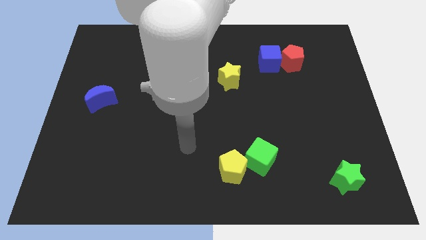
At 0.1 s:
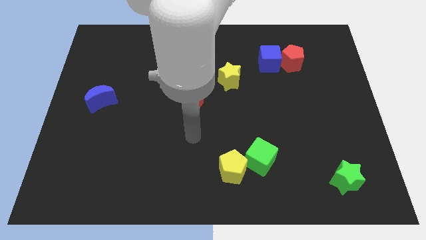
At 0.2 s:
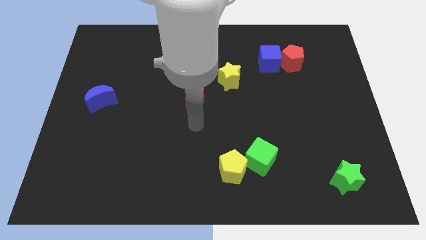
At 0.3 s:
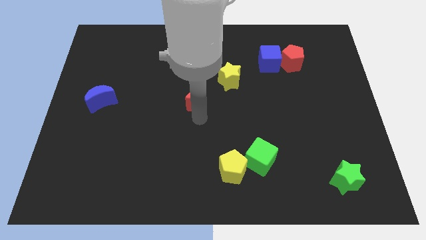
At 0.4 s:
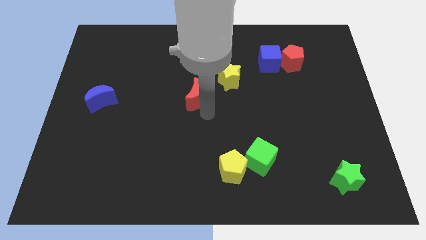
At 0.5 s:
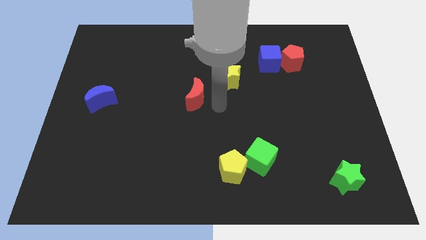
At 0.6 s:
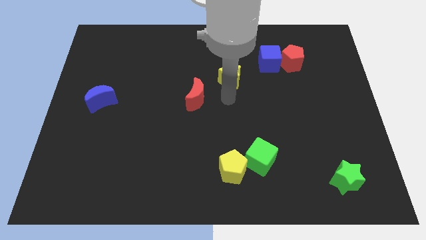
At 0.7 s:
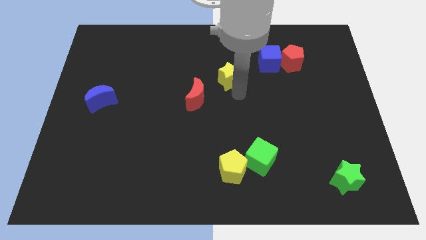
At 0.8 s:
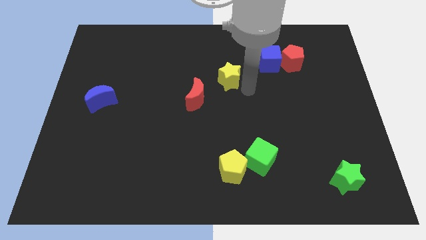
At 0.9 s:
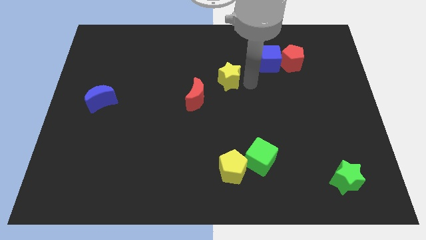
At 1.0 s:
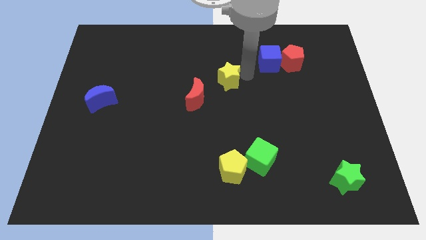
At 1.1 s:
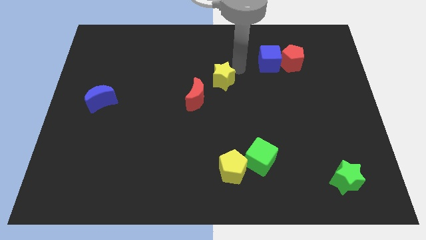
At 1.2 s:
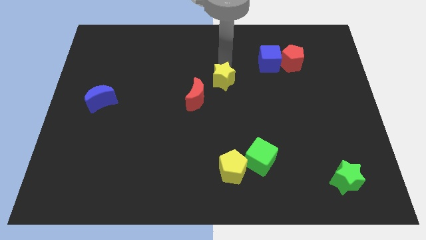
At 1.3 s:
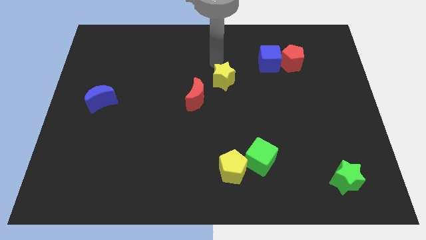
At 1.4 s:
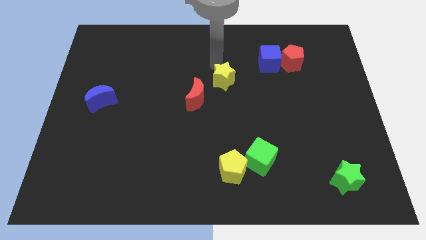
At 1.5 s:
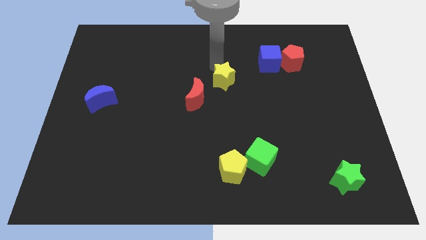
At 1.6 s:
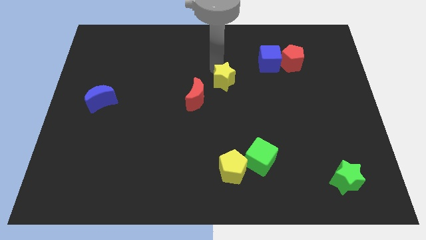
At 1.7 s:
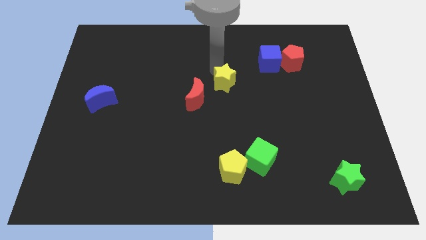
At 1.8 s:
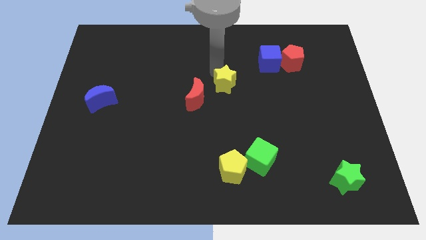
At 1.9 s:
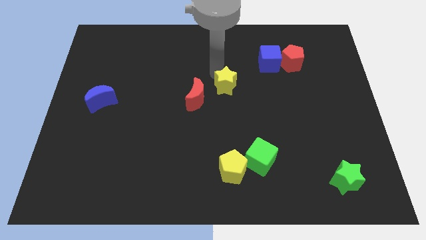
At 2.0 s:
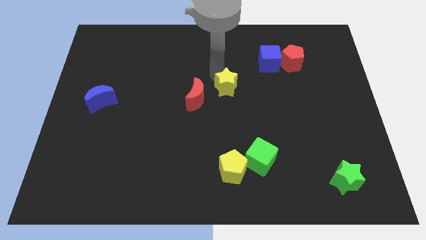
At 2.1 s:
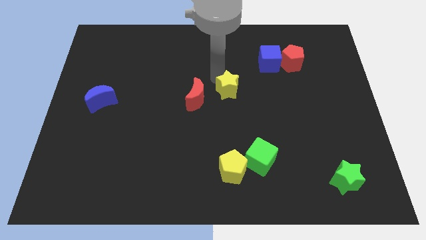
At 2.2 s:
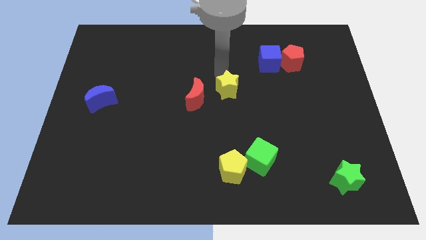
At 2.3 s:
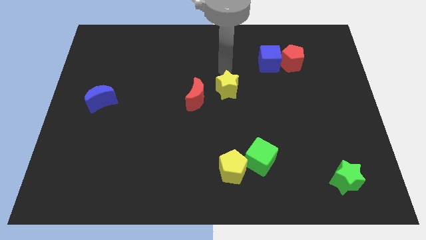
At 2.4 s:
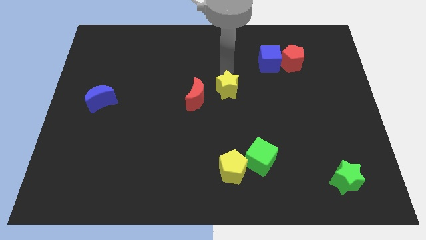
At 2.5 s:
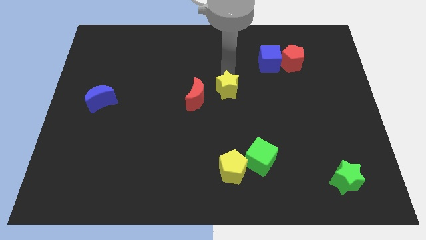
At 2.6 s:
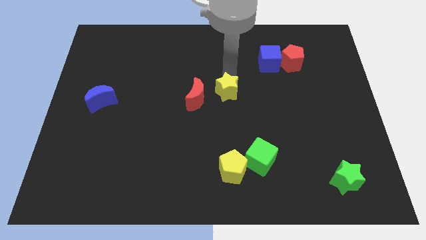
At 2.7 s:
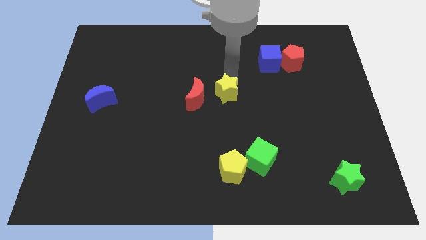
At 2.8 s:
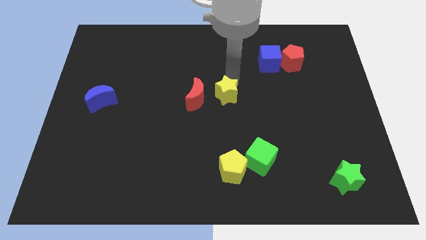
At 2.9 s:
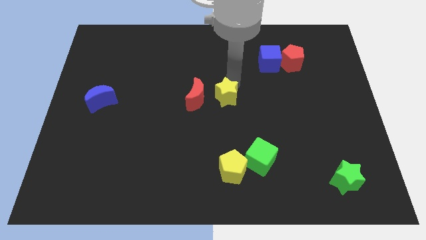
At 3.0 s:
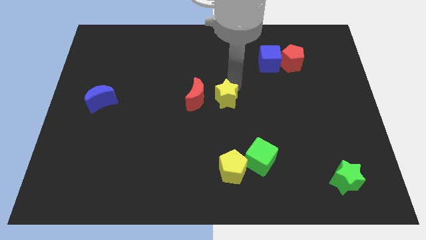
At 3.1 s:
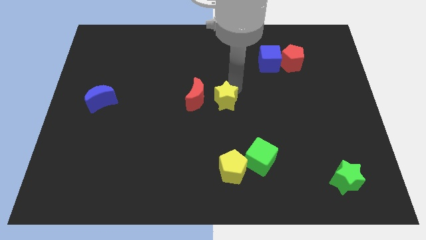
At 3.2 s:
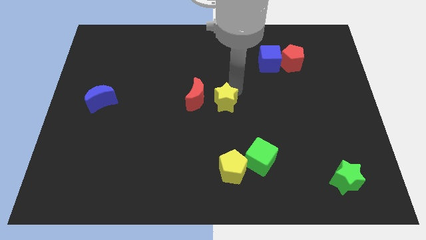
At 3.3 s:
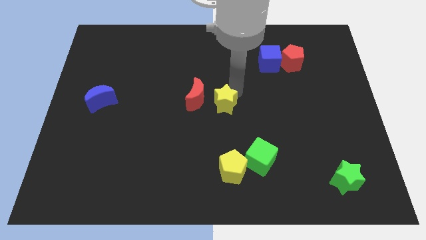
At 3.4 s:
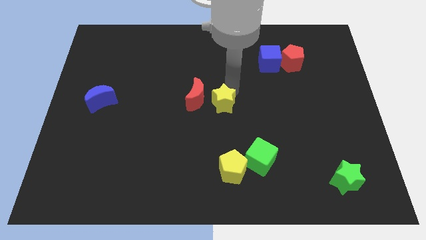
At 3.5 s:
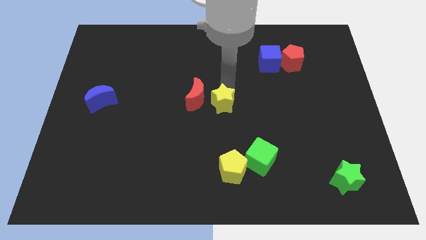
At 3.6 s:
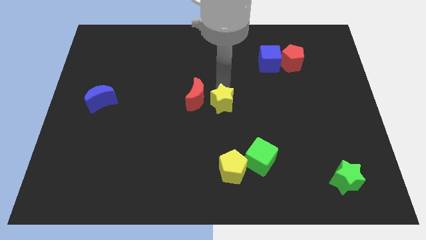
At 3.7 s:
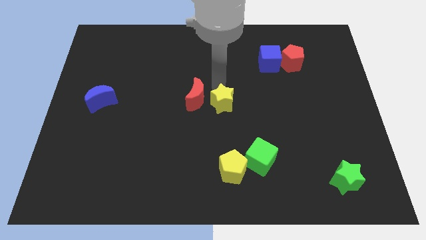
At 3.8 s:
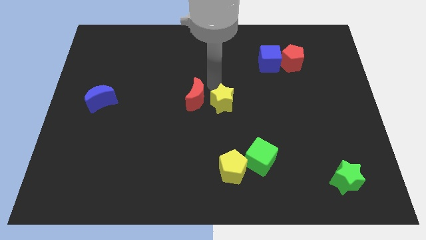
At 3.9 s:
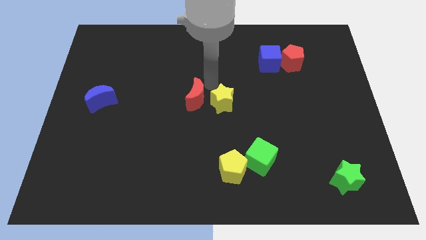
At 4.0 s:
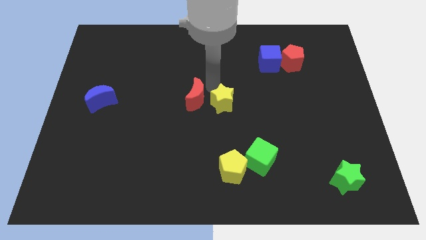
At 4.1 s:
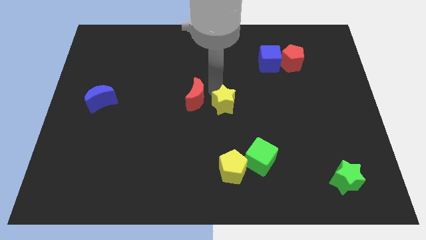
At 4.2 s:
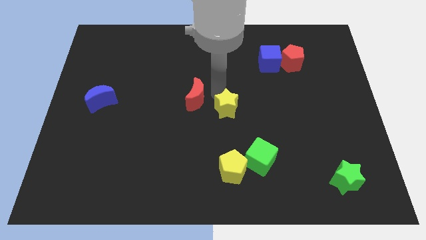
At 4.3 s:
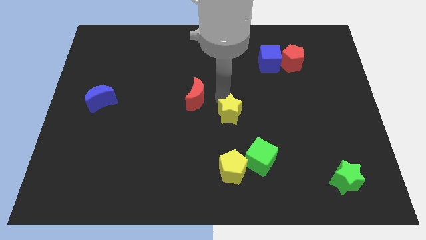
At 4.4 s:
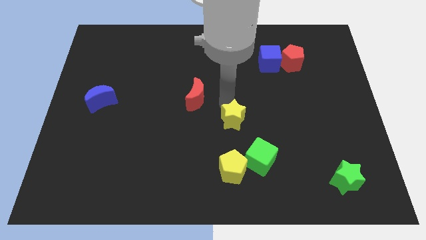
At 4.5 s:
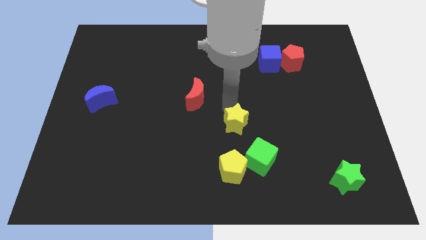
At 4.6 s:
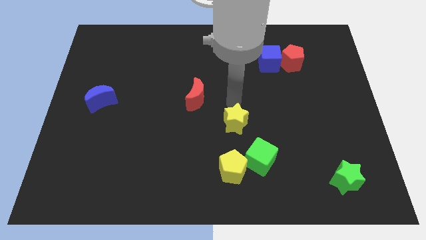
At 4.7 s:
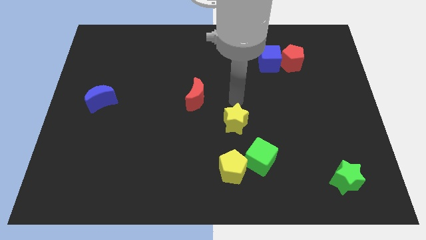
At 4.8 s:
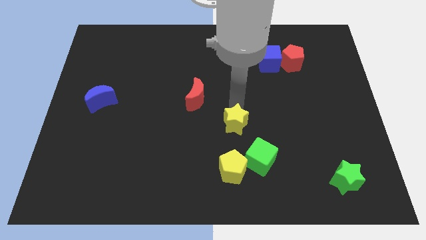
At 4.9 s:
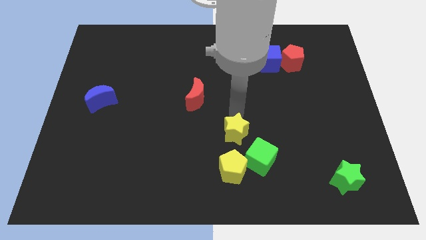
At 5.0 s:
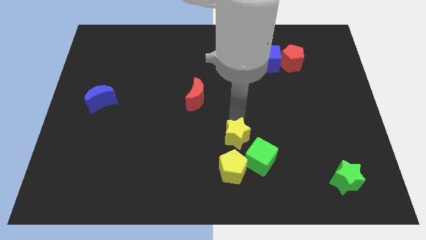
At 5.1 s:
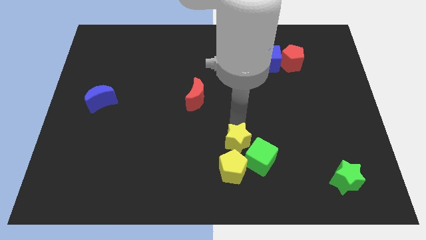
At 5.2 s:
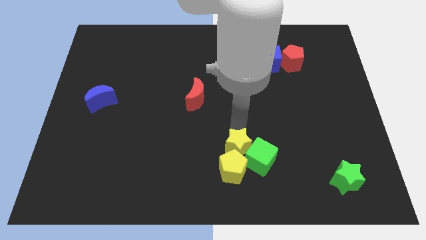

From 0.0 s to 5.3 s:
push the yellow star towards the yellow pentagon

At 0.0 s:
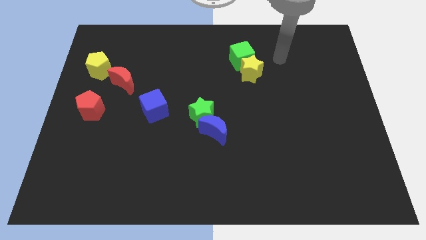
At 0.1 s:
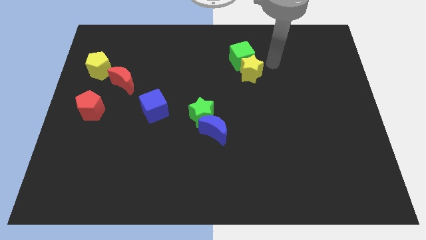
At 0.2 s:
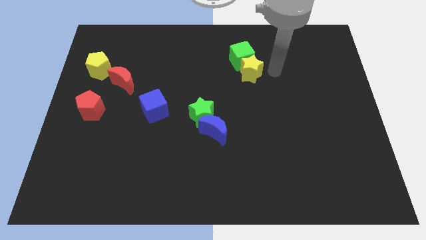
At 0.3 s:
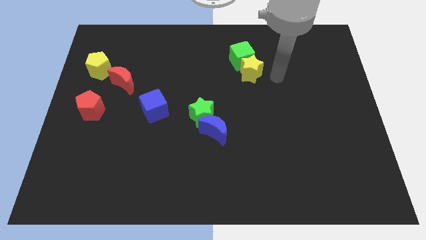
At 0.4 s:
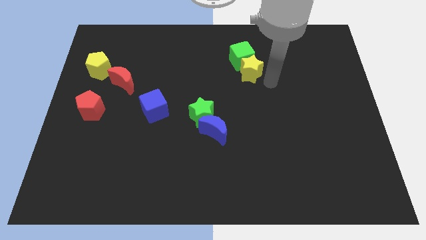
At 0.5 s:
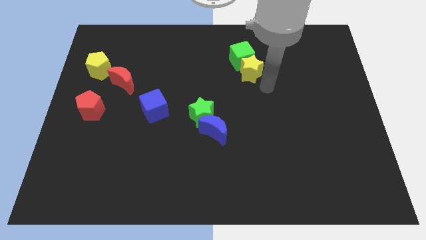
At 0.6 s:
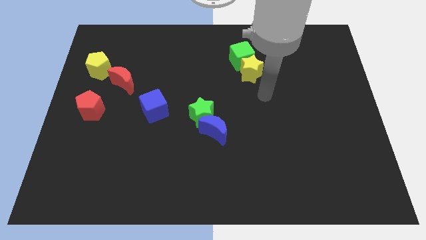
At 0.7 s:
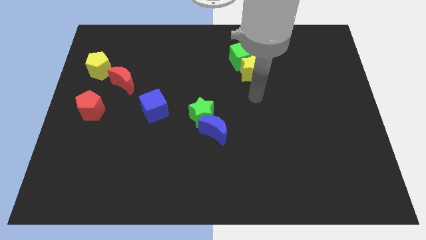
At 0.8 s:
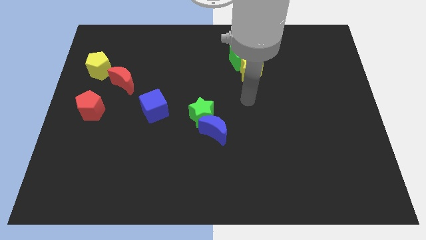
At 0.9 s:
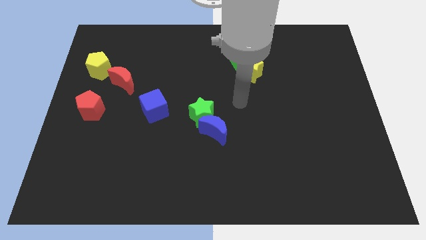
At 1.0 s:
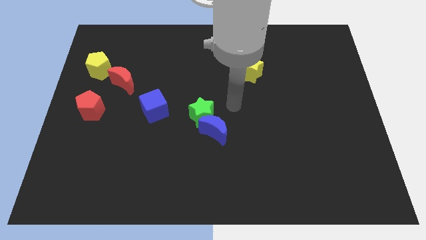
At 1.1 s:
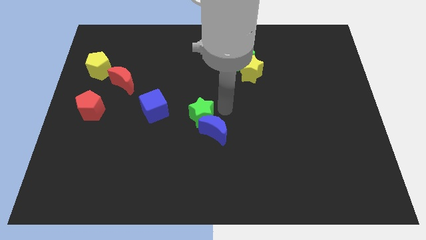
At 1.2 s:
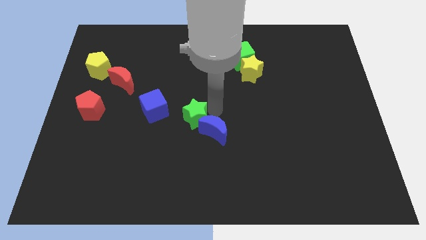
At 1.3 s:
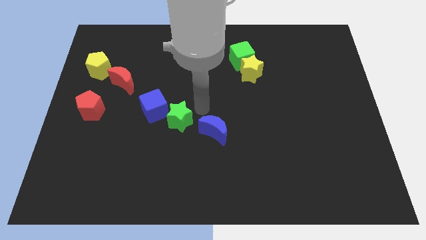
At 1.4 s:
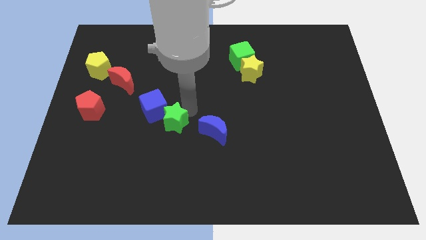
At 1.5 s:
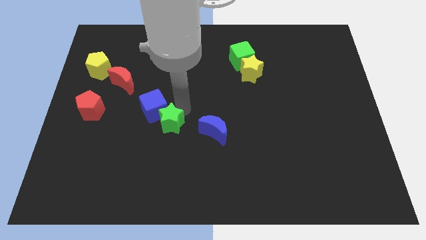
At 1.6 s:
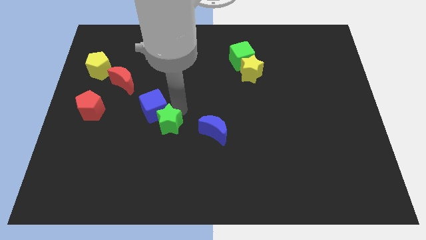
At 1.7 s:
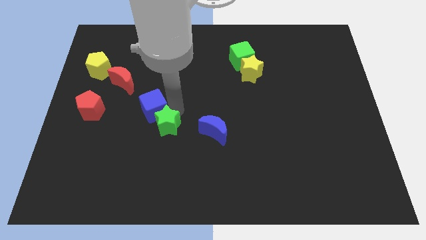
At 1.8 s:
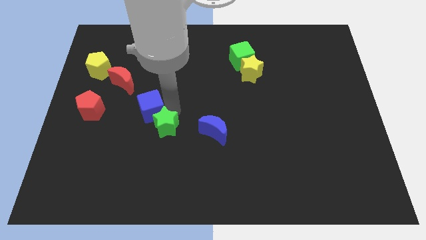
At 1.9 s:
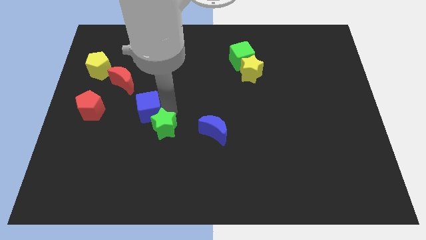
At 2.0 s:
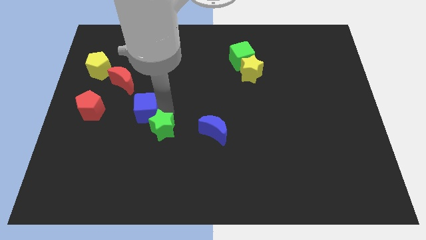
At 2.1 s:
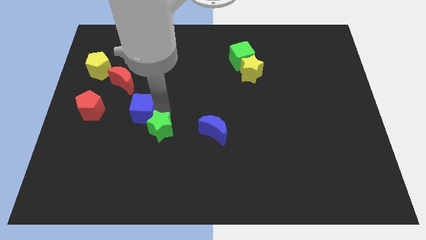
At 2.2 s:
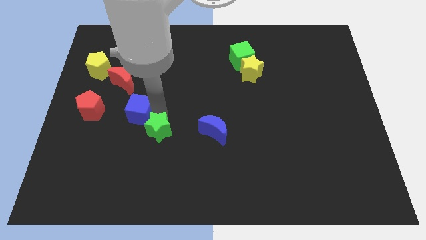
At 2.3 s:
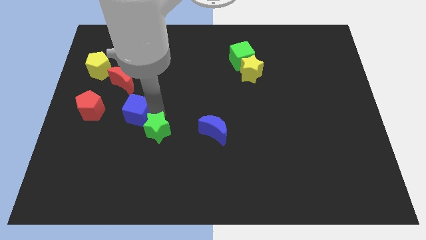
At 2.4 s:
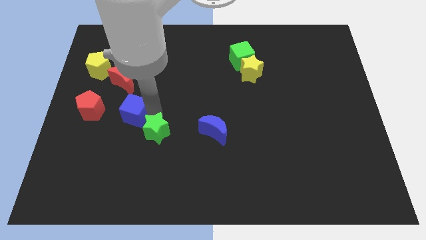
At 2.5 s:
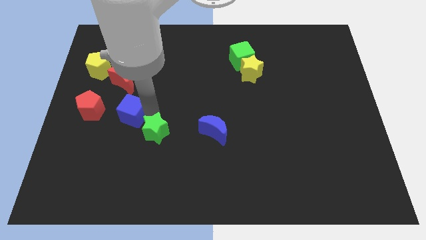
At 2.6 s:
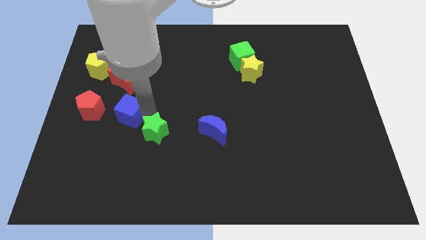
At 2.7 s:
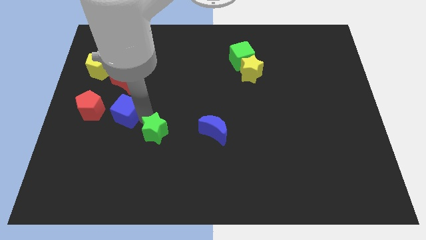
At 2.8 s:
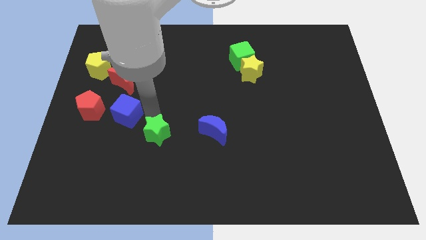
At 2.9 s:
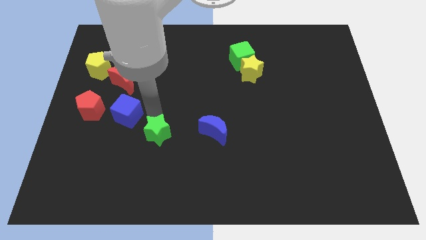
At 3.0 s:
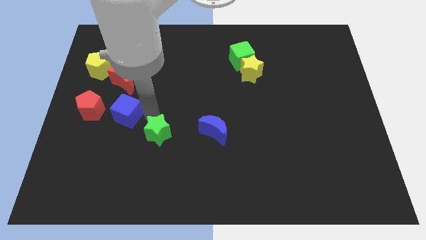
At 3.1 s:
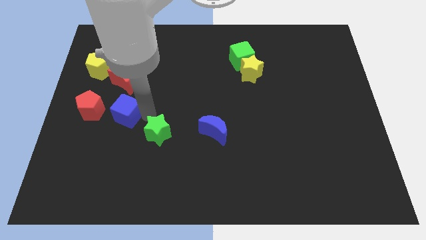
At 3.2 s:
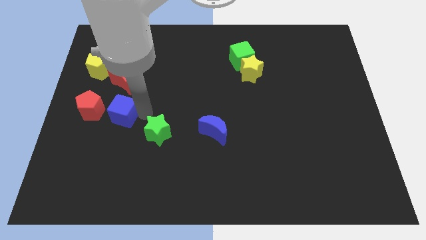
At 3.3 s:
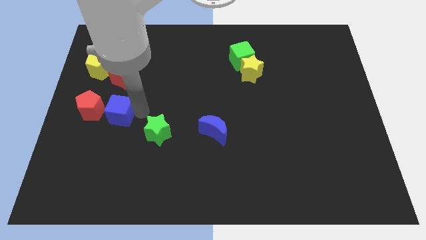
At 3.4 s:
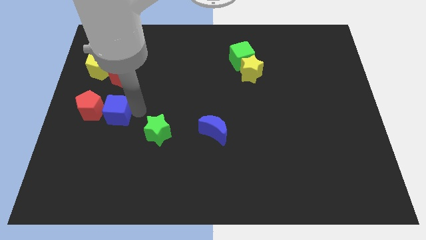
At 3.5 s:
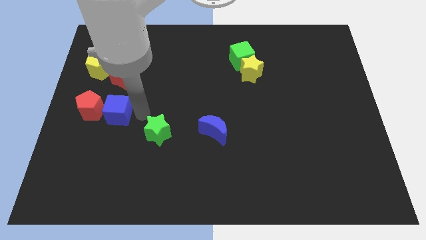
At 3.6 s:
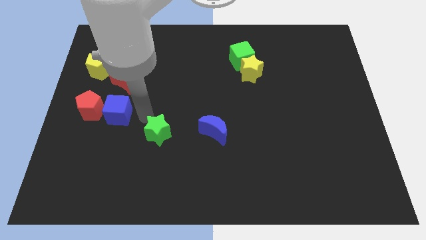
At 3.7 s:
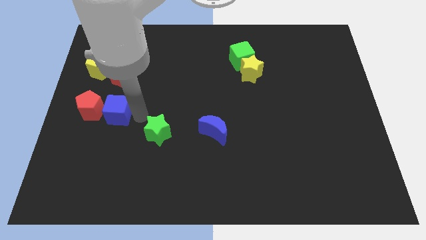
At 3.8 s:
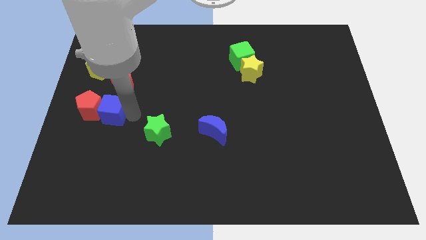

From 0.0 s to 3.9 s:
move the blue cube towards the red pentagon
